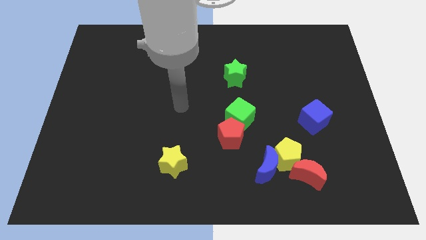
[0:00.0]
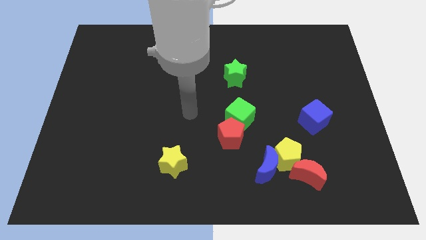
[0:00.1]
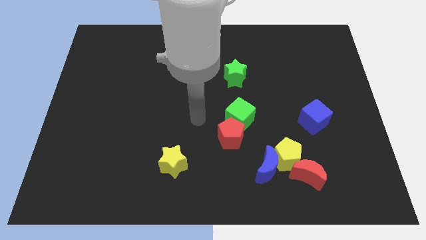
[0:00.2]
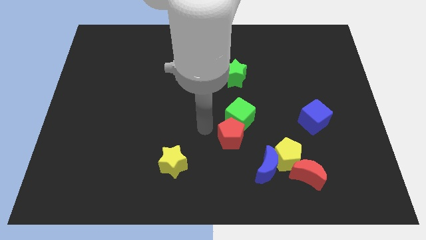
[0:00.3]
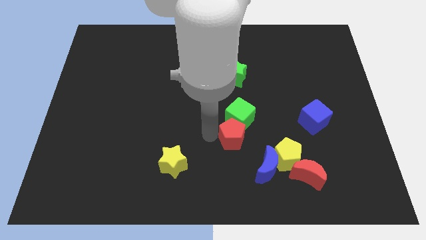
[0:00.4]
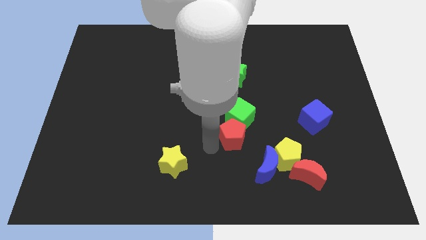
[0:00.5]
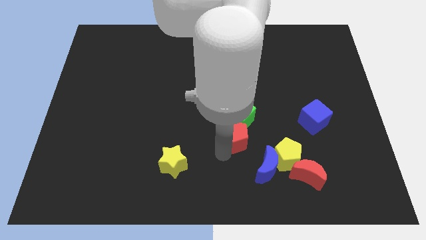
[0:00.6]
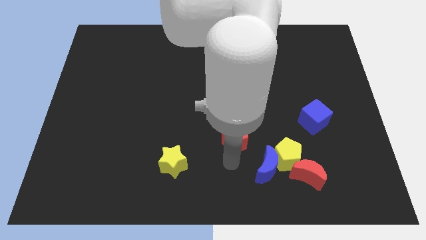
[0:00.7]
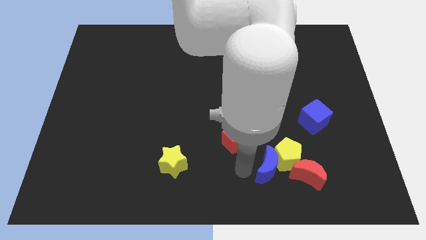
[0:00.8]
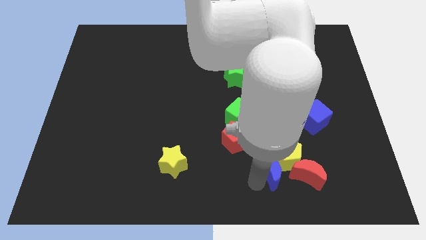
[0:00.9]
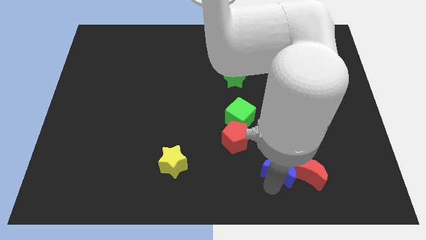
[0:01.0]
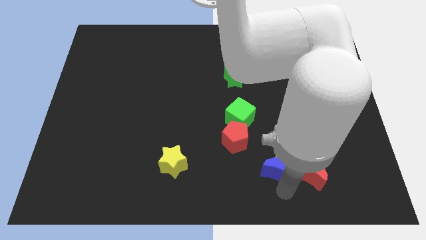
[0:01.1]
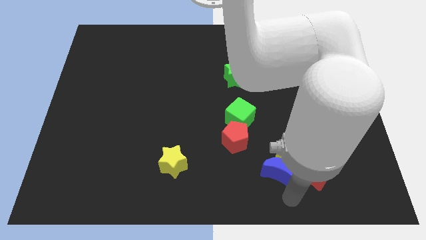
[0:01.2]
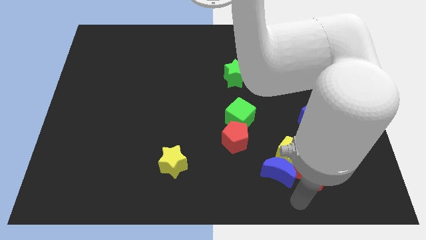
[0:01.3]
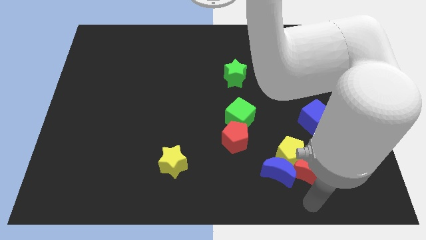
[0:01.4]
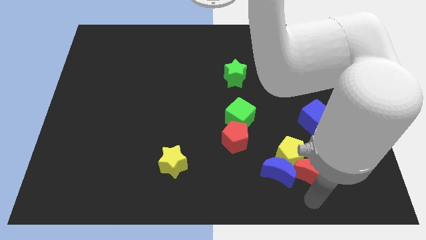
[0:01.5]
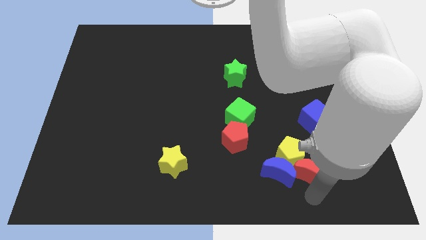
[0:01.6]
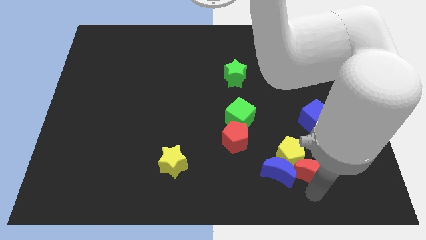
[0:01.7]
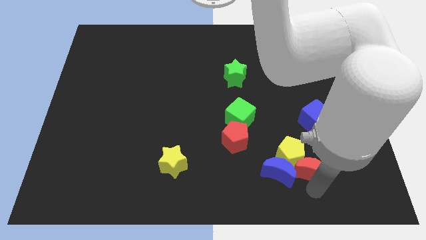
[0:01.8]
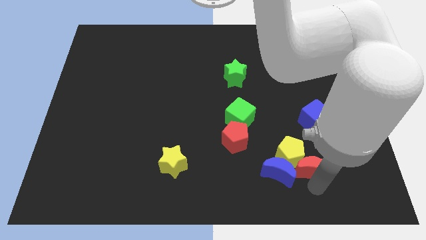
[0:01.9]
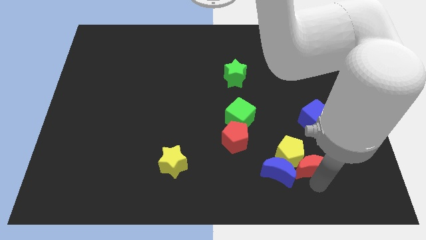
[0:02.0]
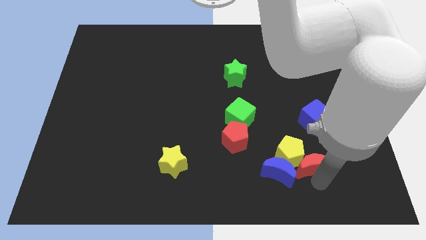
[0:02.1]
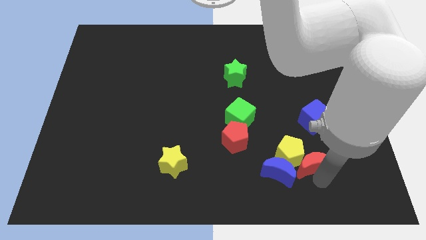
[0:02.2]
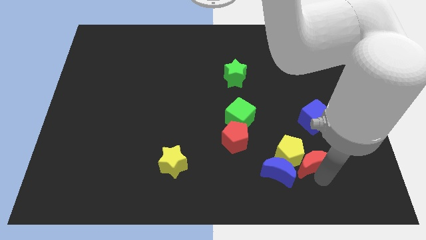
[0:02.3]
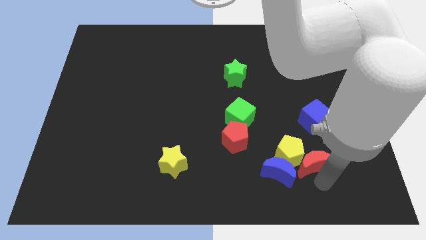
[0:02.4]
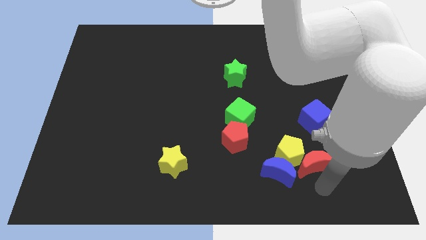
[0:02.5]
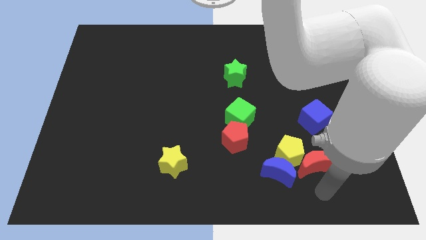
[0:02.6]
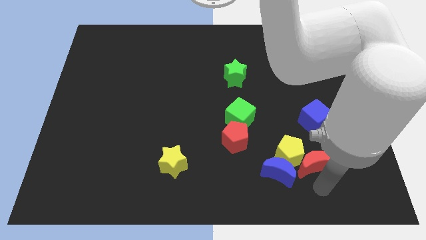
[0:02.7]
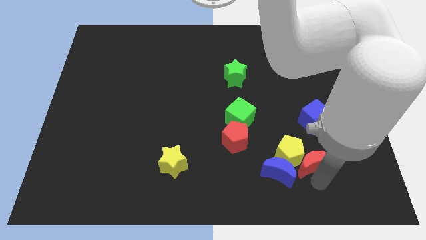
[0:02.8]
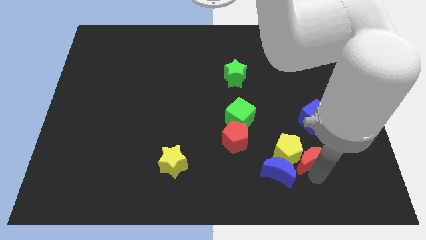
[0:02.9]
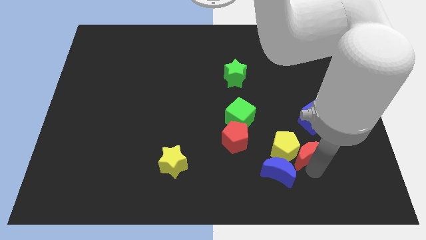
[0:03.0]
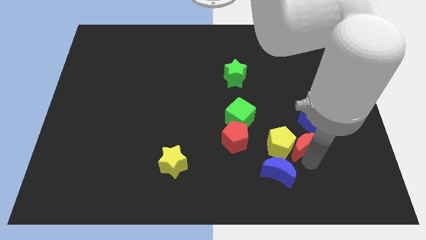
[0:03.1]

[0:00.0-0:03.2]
slightly slide the red moon up

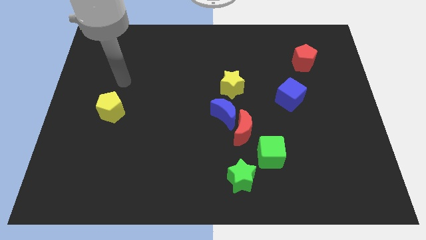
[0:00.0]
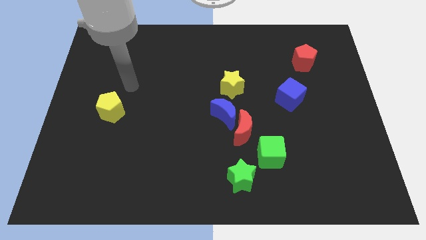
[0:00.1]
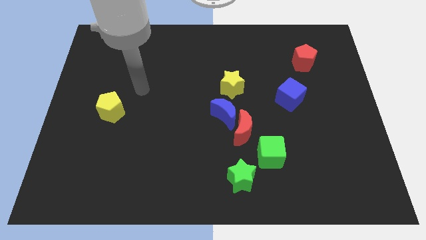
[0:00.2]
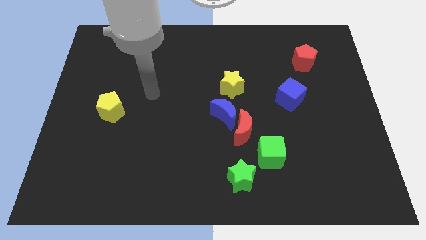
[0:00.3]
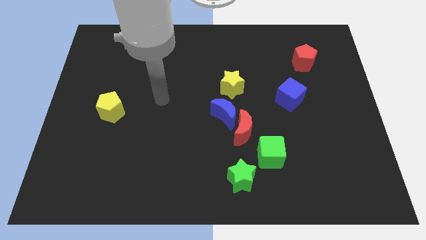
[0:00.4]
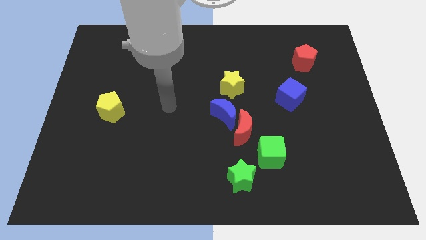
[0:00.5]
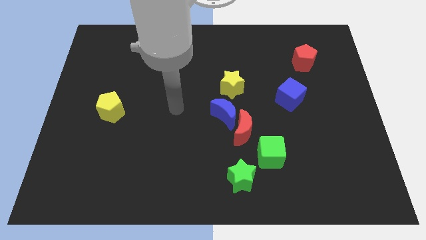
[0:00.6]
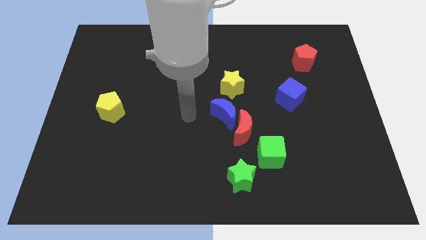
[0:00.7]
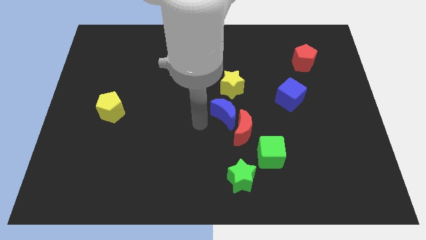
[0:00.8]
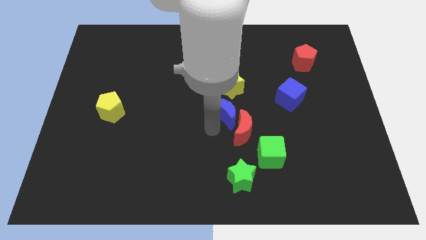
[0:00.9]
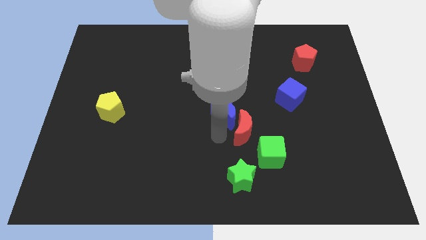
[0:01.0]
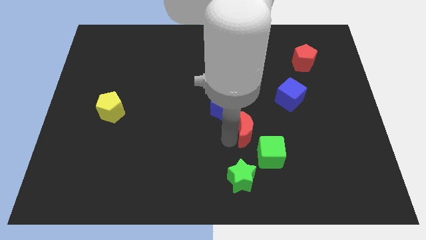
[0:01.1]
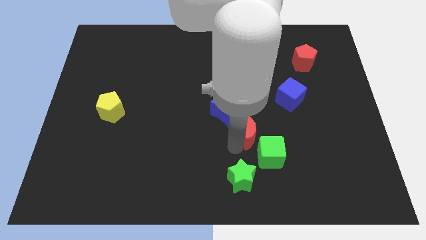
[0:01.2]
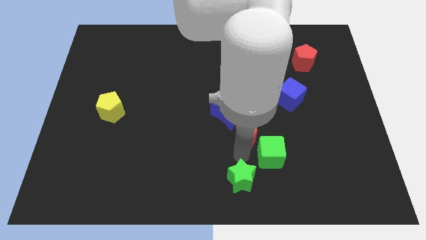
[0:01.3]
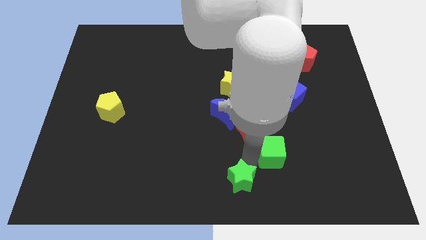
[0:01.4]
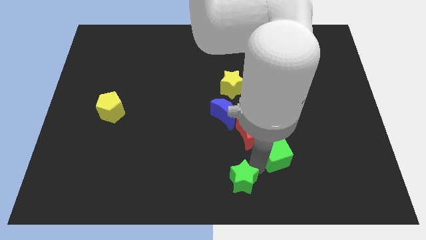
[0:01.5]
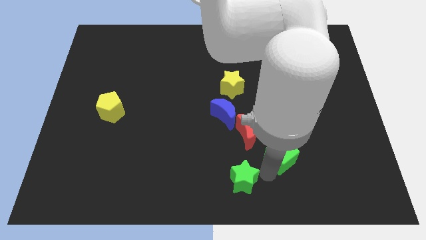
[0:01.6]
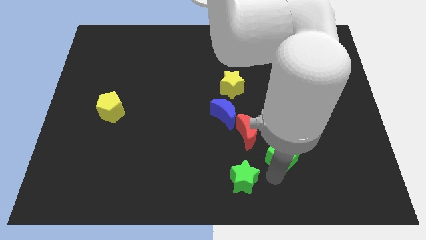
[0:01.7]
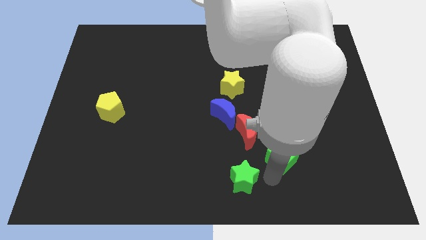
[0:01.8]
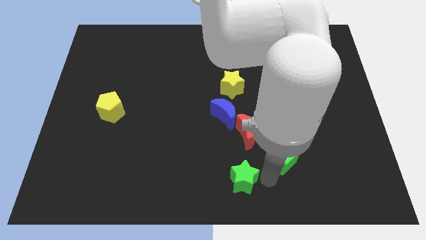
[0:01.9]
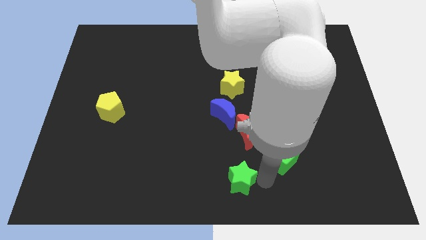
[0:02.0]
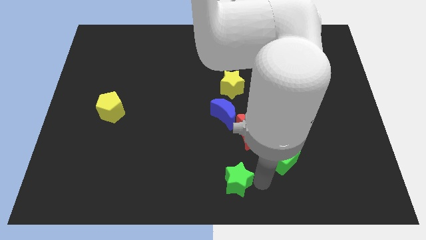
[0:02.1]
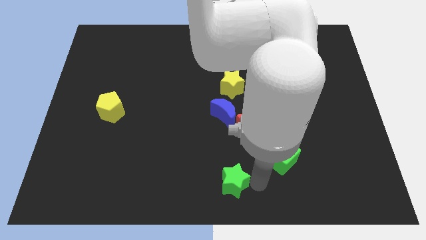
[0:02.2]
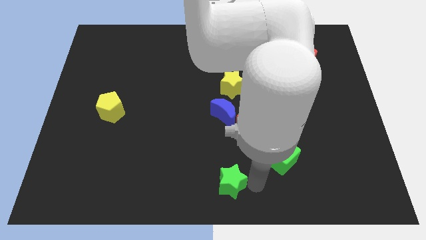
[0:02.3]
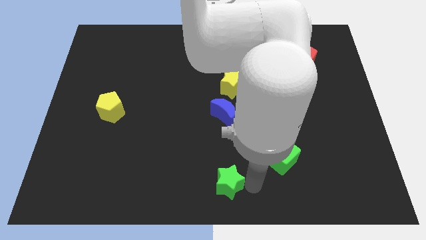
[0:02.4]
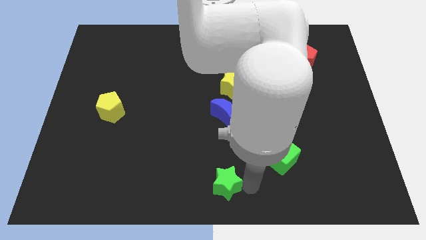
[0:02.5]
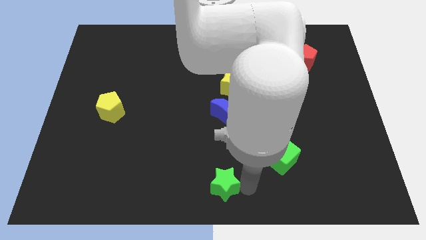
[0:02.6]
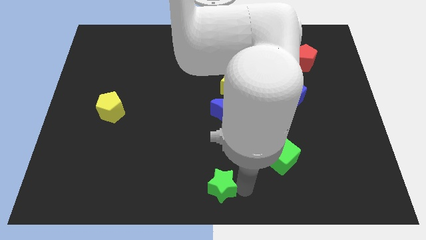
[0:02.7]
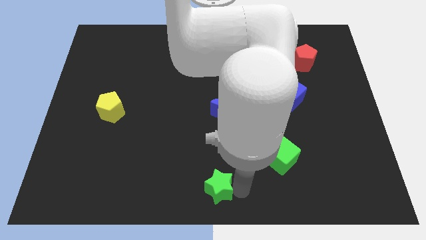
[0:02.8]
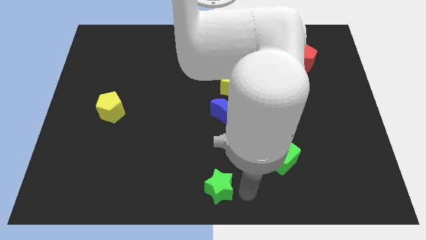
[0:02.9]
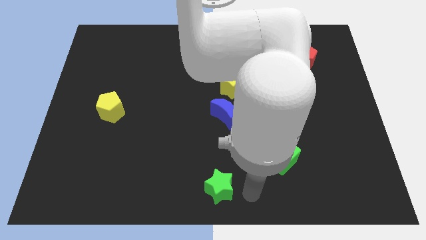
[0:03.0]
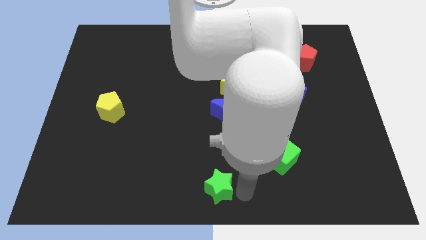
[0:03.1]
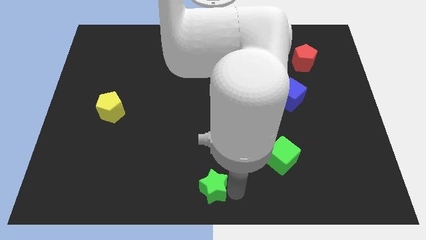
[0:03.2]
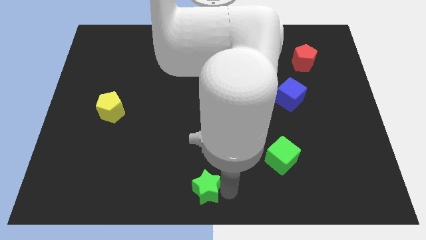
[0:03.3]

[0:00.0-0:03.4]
slightly move the green star left

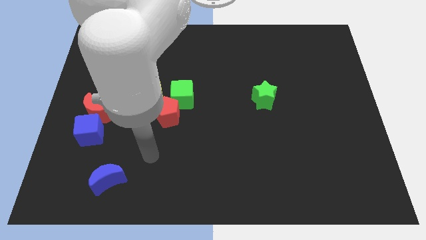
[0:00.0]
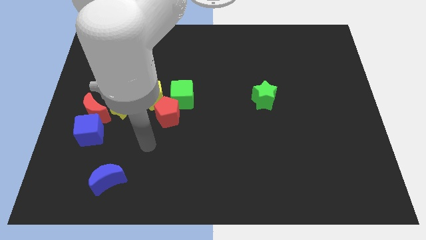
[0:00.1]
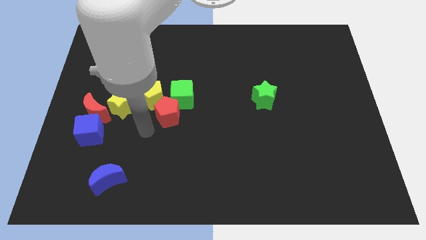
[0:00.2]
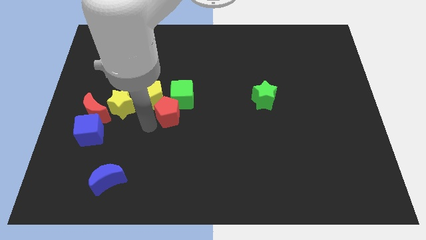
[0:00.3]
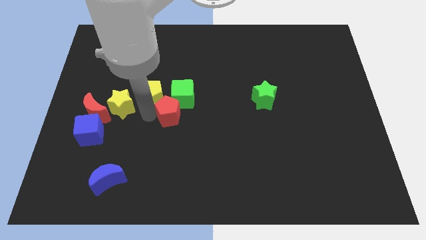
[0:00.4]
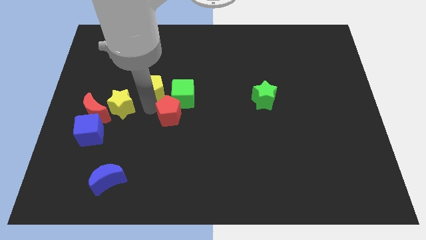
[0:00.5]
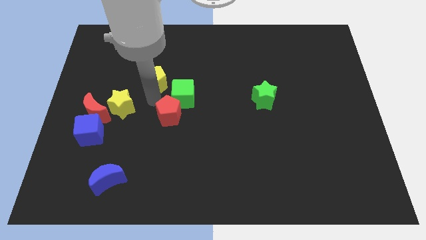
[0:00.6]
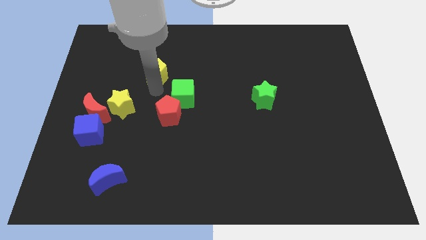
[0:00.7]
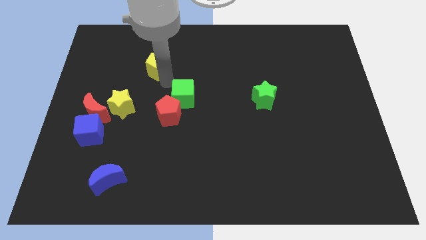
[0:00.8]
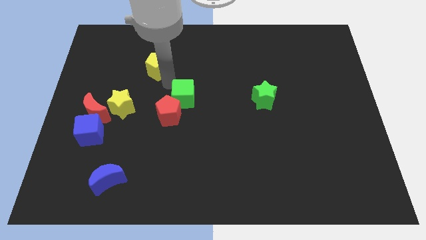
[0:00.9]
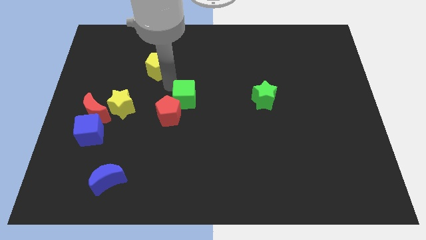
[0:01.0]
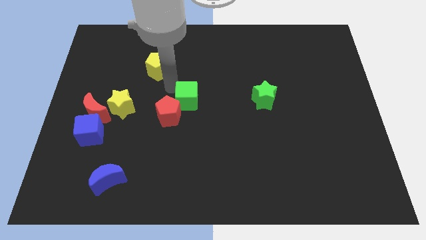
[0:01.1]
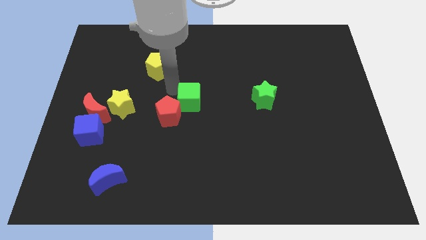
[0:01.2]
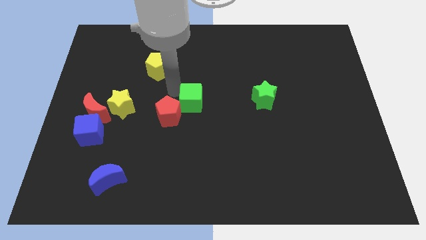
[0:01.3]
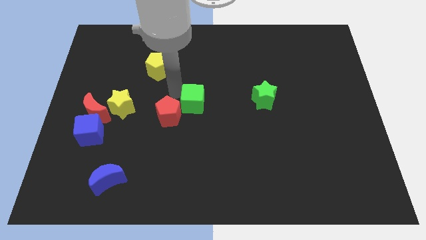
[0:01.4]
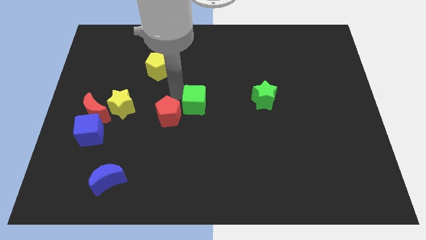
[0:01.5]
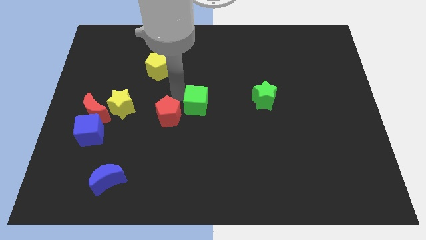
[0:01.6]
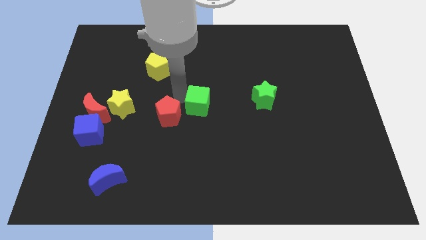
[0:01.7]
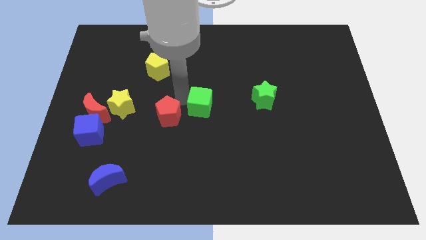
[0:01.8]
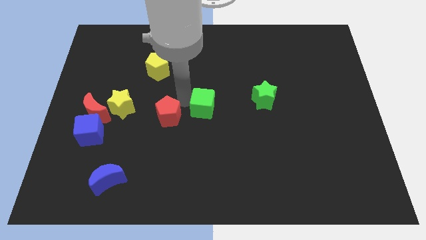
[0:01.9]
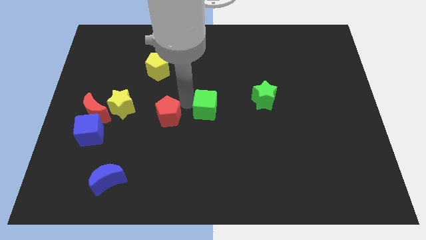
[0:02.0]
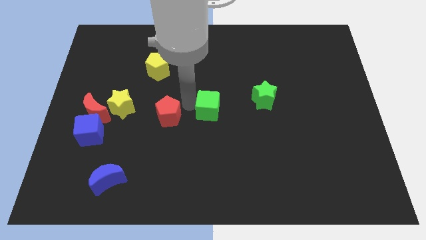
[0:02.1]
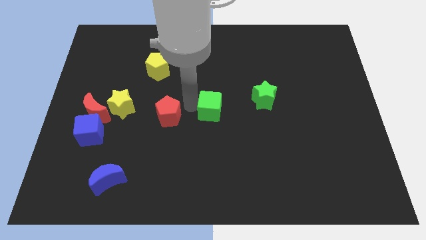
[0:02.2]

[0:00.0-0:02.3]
slide the green cube a little bit down and then right
